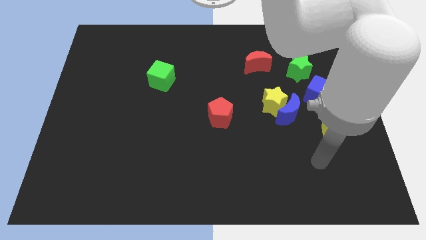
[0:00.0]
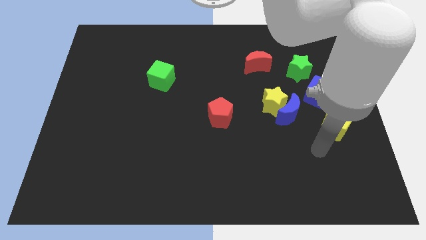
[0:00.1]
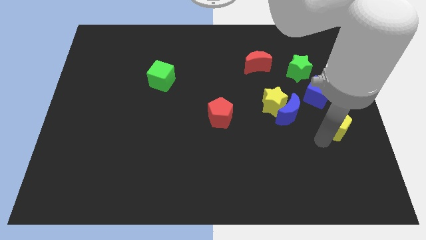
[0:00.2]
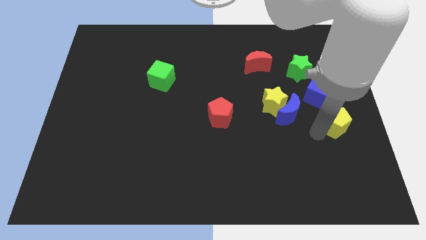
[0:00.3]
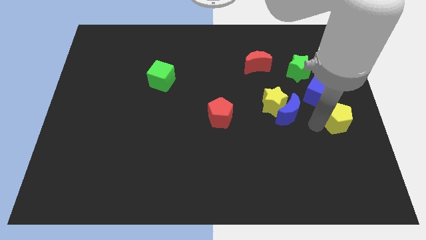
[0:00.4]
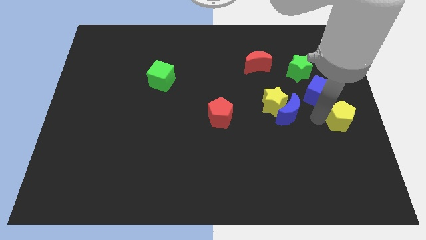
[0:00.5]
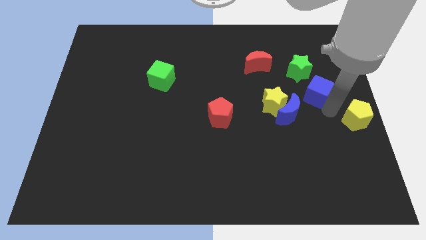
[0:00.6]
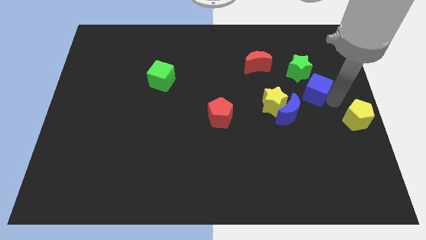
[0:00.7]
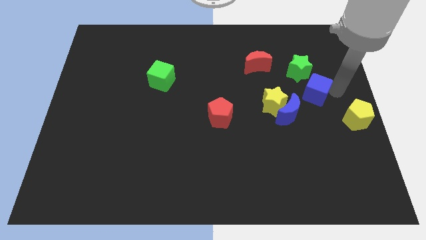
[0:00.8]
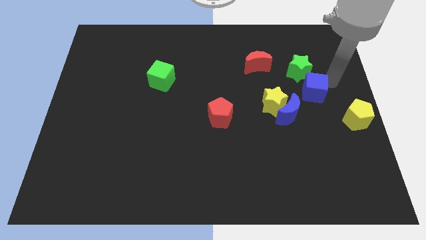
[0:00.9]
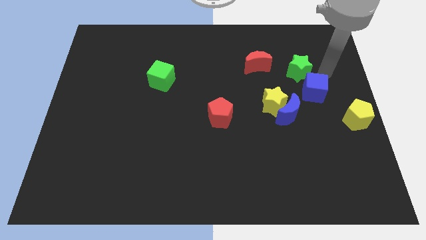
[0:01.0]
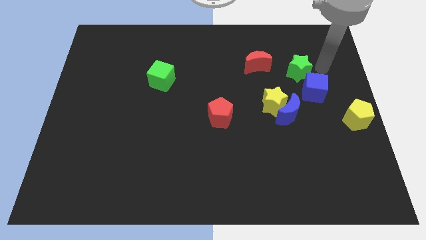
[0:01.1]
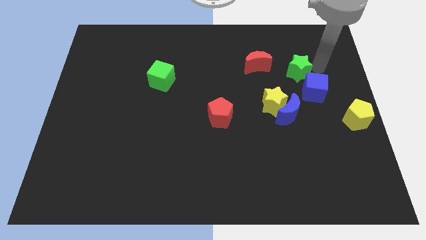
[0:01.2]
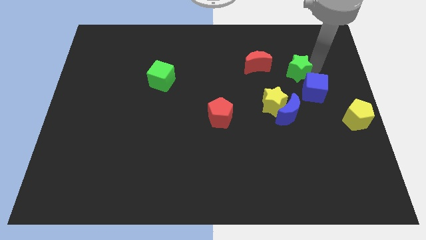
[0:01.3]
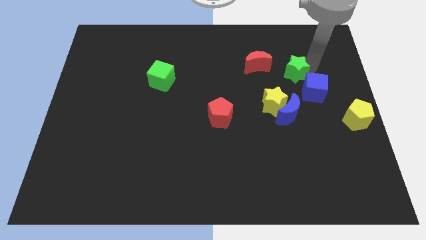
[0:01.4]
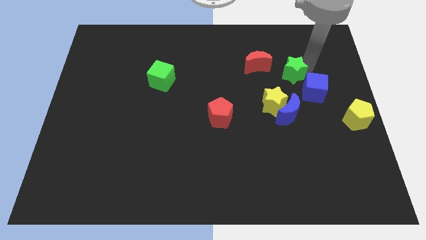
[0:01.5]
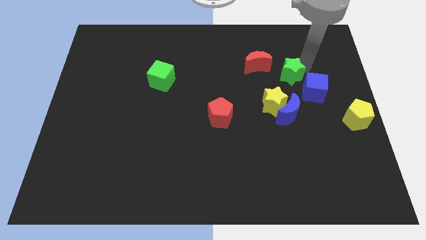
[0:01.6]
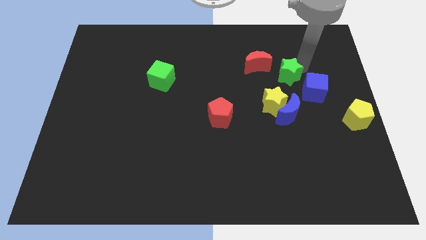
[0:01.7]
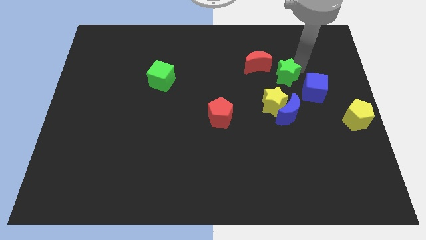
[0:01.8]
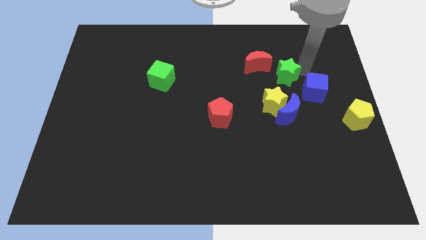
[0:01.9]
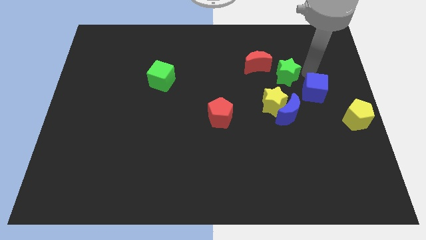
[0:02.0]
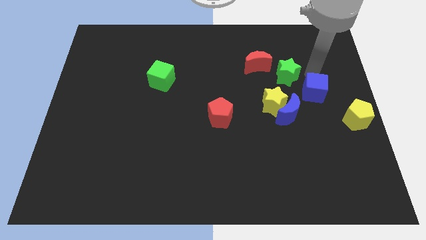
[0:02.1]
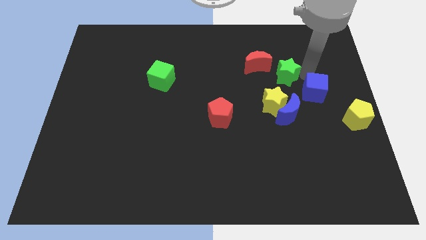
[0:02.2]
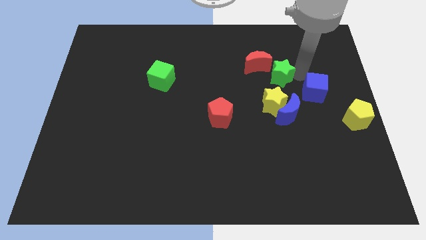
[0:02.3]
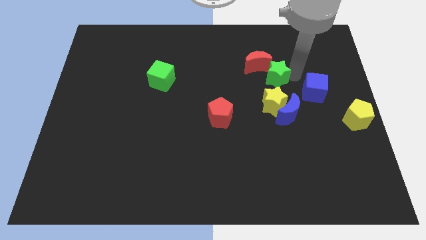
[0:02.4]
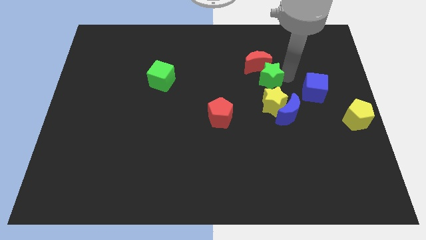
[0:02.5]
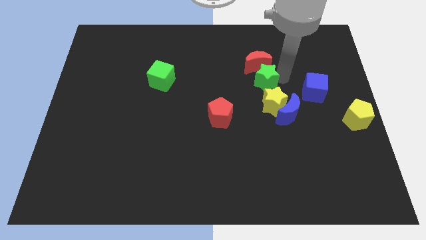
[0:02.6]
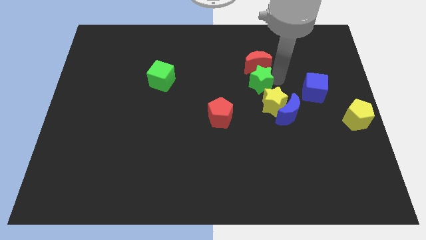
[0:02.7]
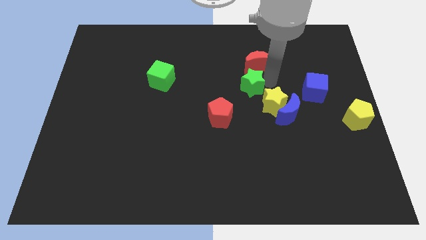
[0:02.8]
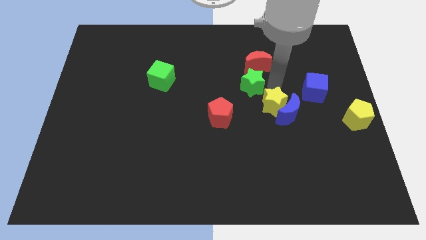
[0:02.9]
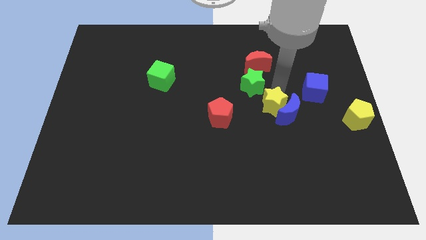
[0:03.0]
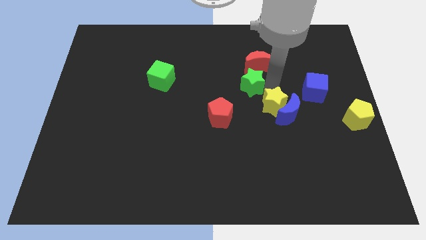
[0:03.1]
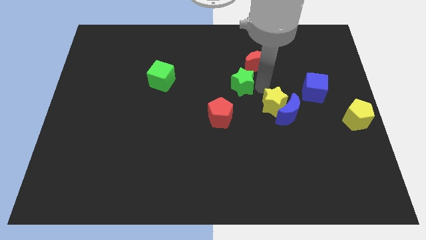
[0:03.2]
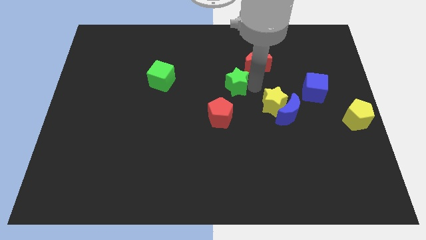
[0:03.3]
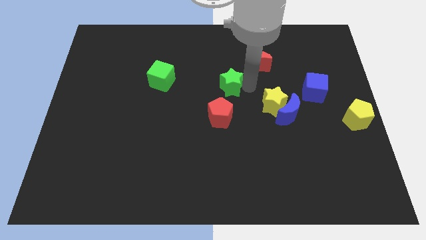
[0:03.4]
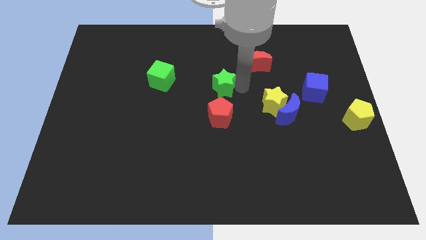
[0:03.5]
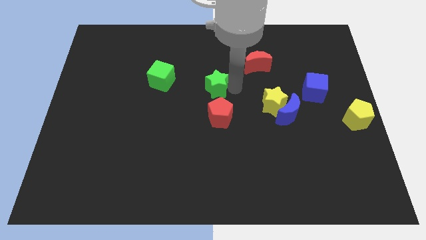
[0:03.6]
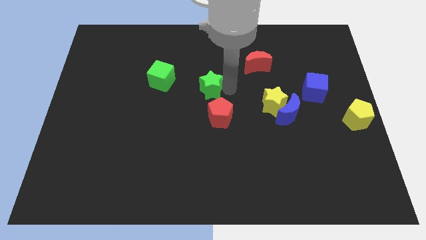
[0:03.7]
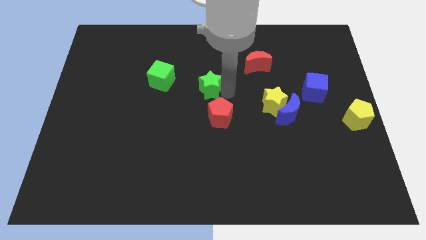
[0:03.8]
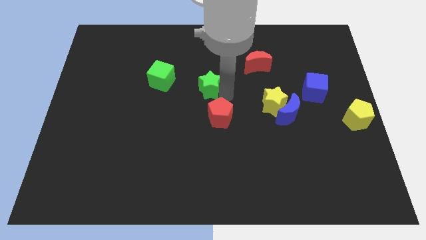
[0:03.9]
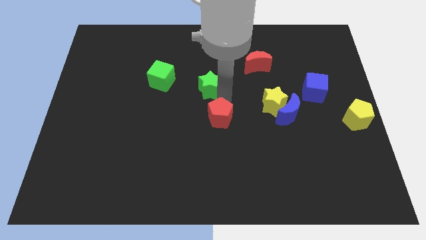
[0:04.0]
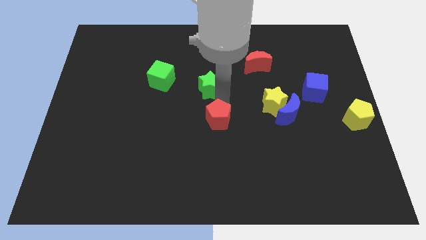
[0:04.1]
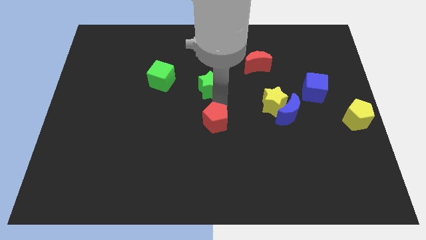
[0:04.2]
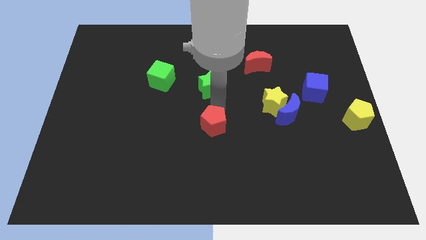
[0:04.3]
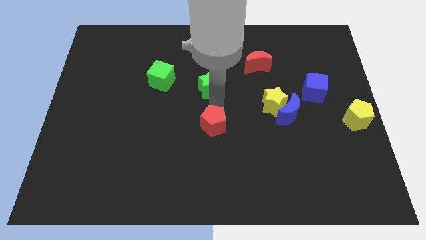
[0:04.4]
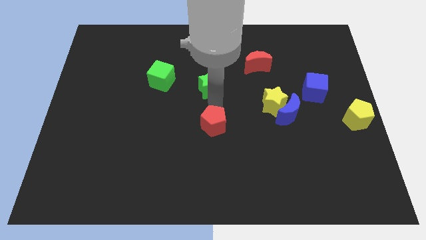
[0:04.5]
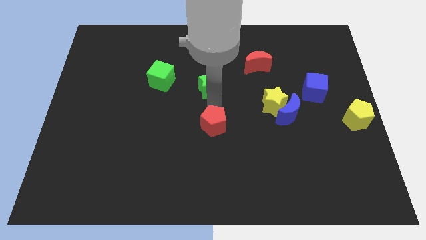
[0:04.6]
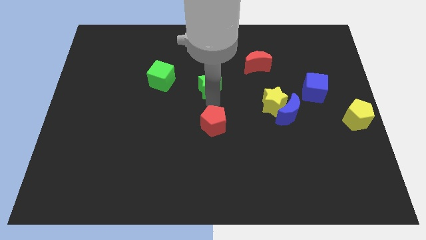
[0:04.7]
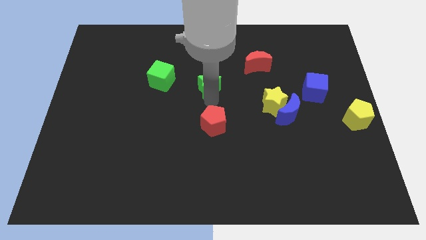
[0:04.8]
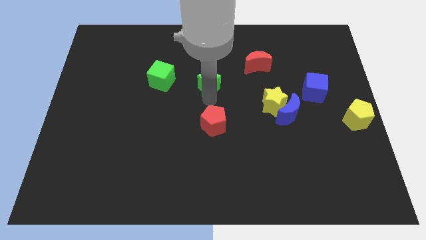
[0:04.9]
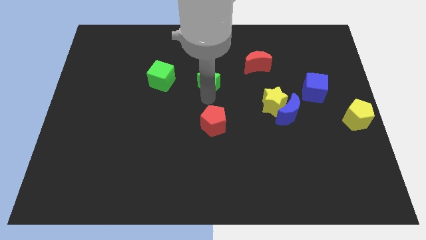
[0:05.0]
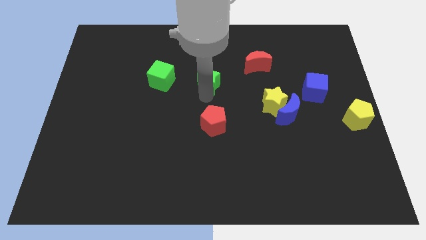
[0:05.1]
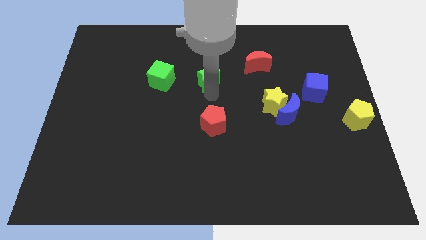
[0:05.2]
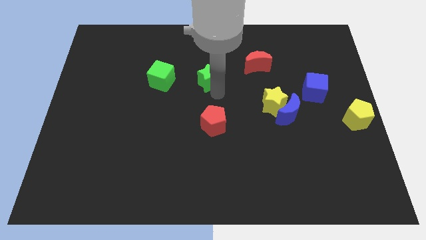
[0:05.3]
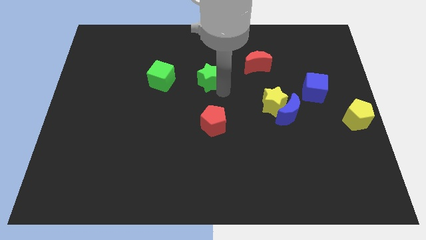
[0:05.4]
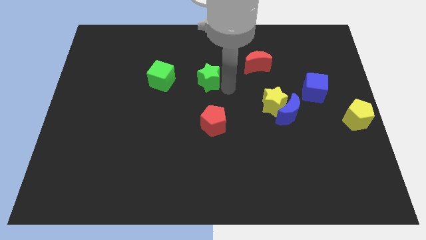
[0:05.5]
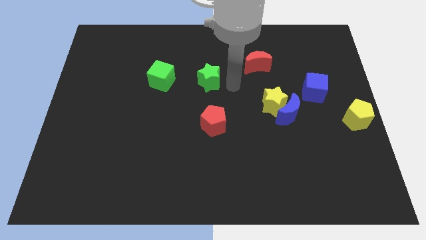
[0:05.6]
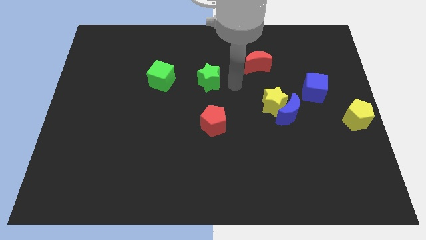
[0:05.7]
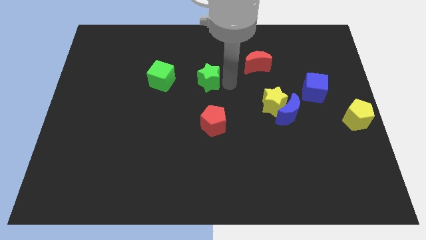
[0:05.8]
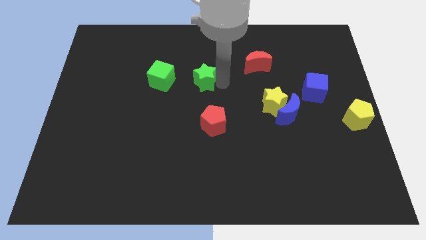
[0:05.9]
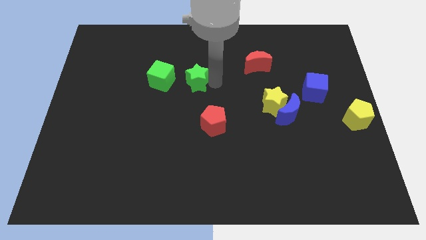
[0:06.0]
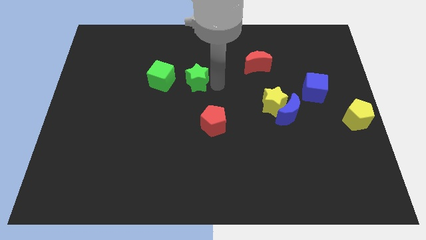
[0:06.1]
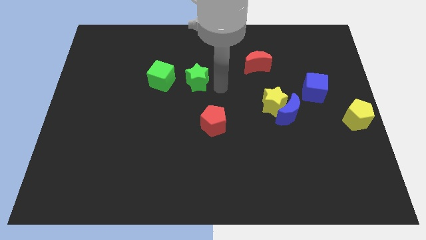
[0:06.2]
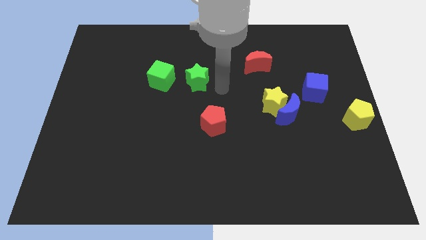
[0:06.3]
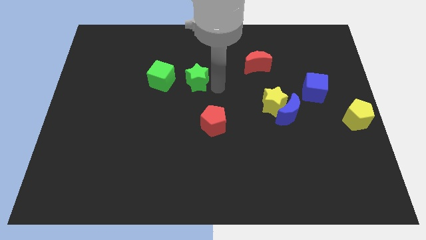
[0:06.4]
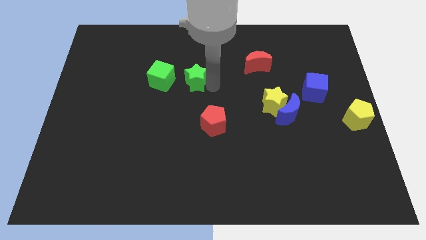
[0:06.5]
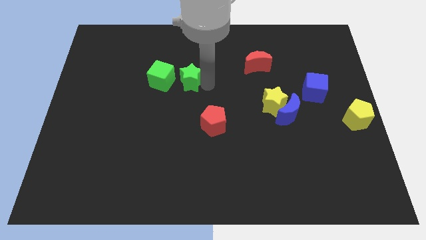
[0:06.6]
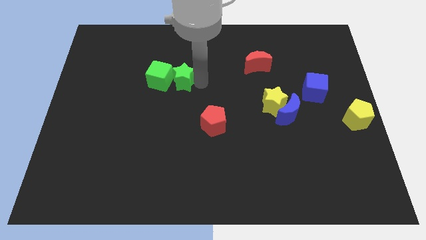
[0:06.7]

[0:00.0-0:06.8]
put the green star towards the green cube
